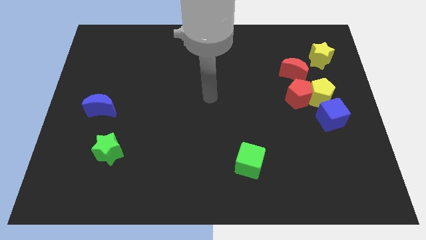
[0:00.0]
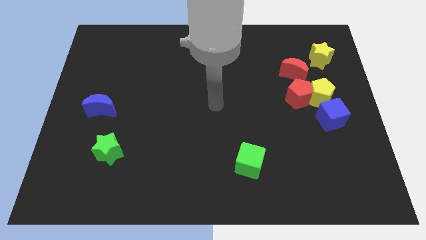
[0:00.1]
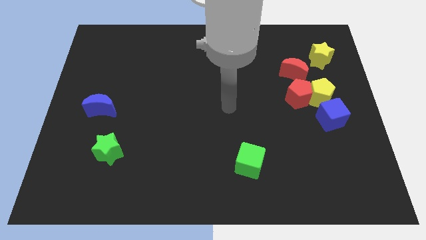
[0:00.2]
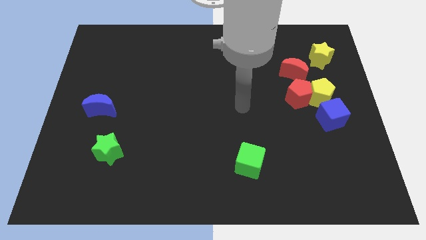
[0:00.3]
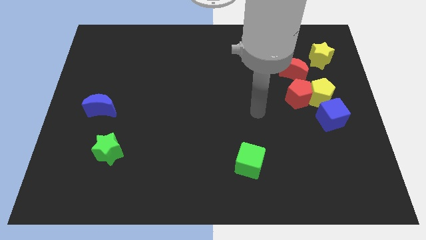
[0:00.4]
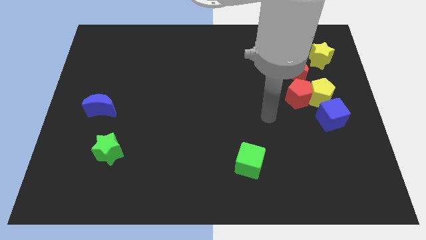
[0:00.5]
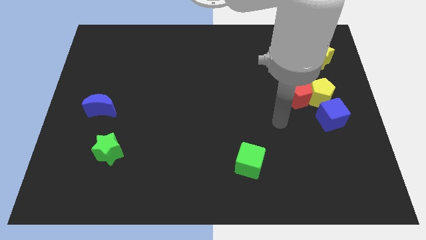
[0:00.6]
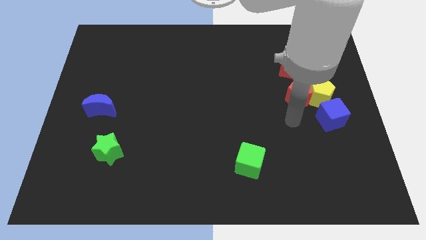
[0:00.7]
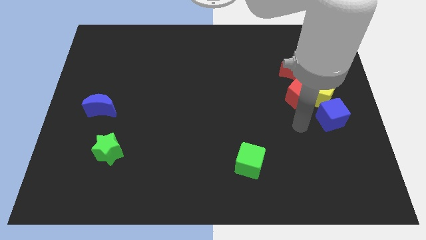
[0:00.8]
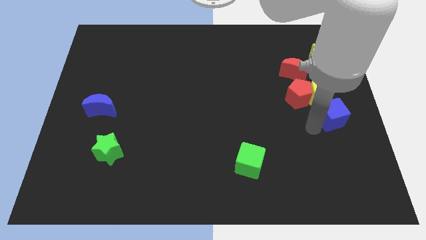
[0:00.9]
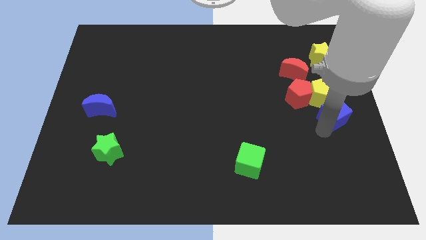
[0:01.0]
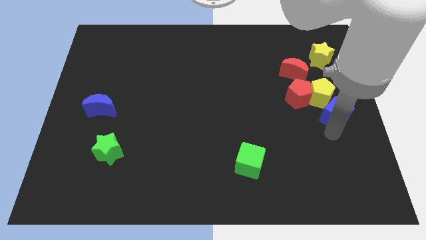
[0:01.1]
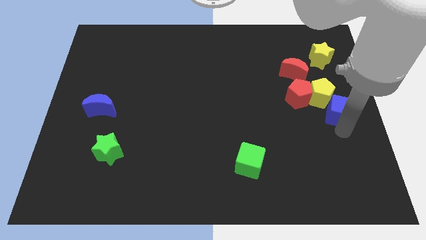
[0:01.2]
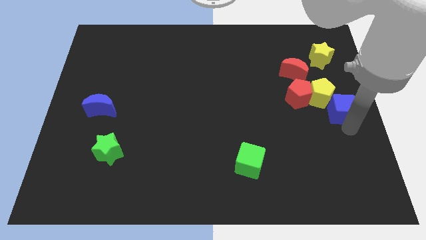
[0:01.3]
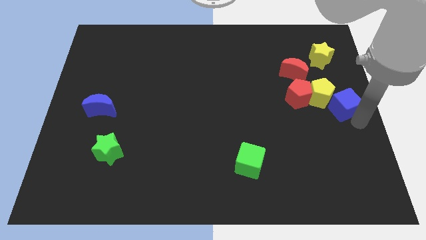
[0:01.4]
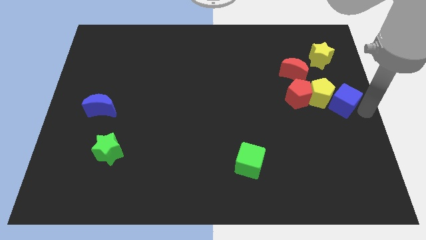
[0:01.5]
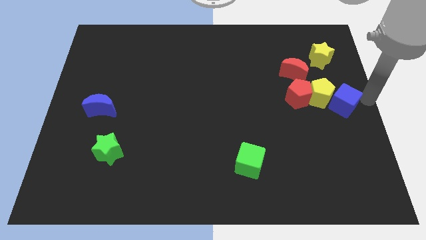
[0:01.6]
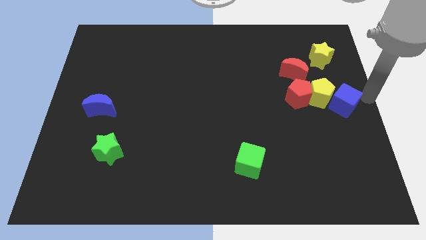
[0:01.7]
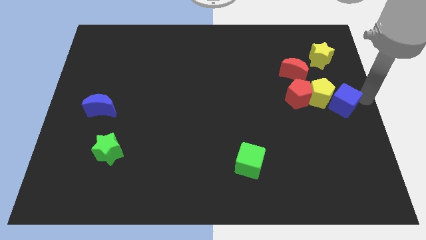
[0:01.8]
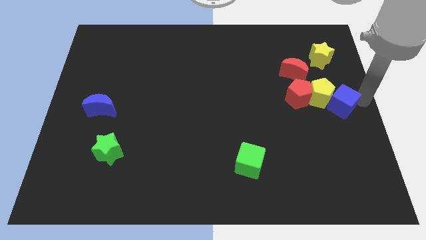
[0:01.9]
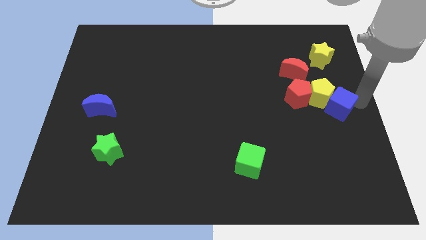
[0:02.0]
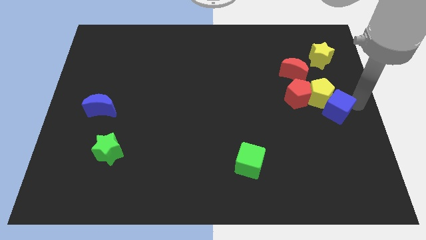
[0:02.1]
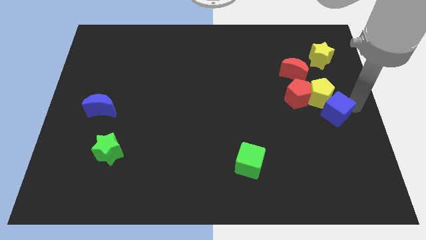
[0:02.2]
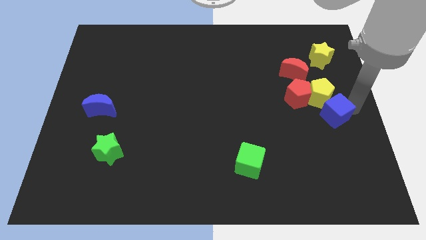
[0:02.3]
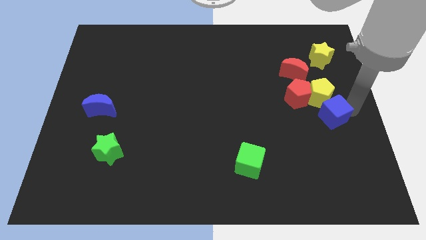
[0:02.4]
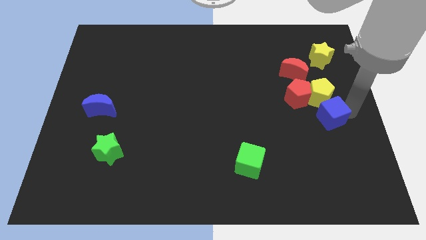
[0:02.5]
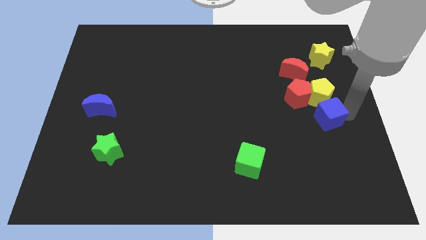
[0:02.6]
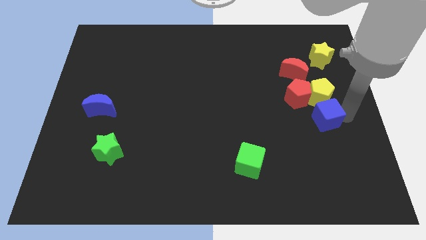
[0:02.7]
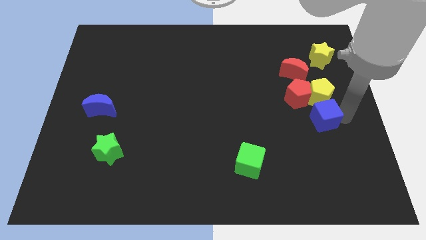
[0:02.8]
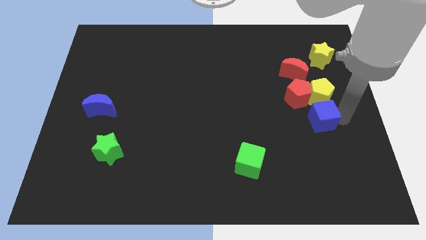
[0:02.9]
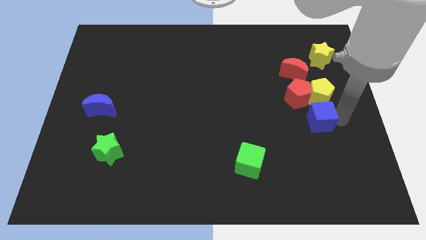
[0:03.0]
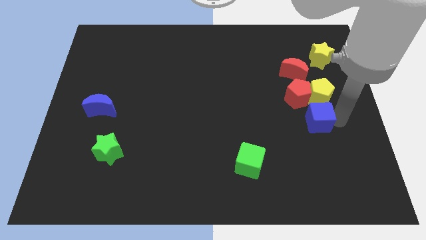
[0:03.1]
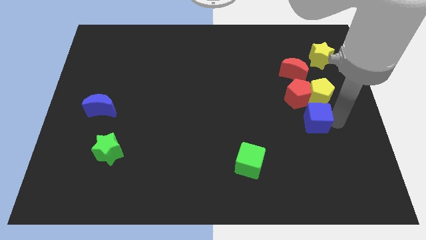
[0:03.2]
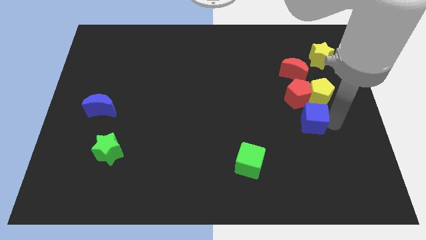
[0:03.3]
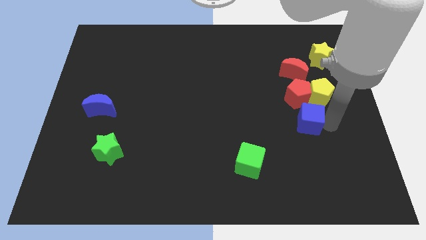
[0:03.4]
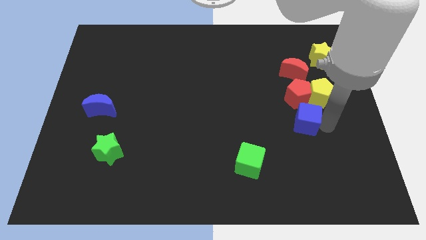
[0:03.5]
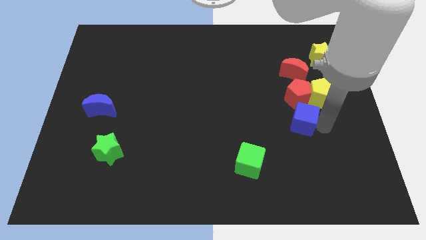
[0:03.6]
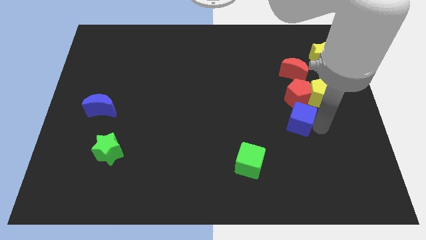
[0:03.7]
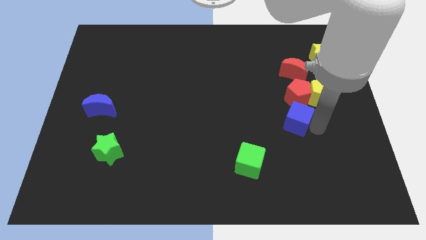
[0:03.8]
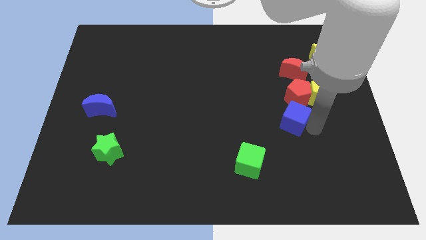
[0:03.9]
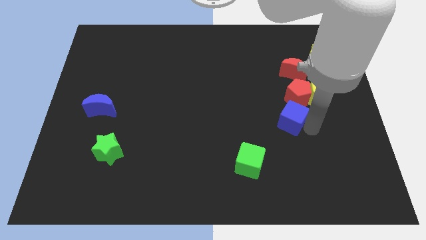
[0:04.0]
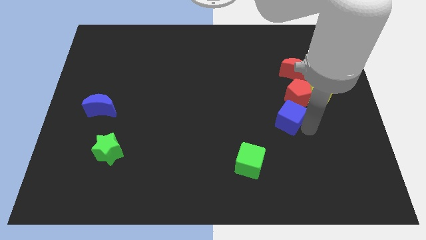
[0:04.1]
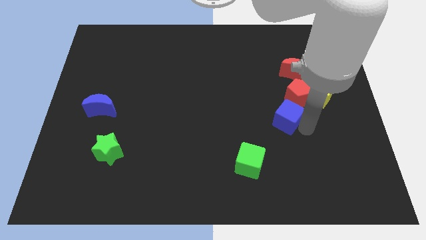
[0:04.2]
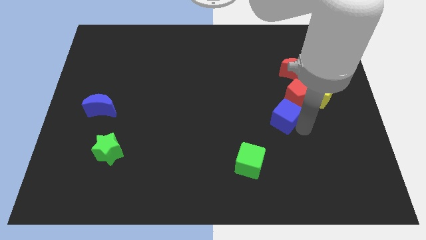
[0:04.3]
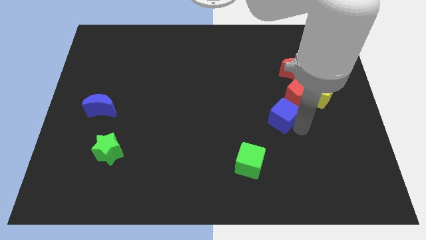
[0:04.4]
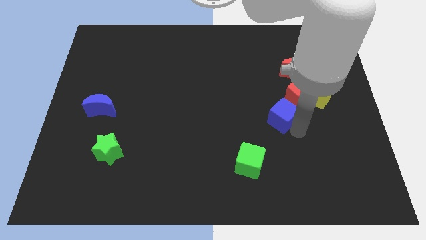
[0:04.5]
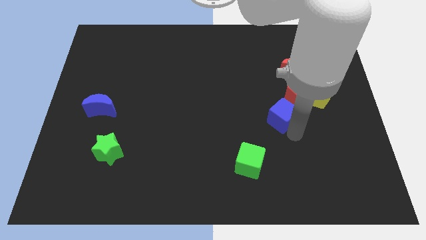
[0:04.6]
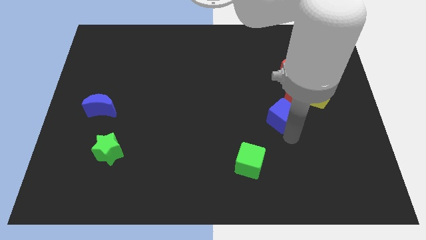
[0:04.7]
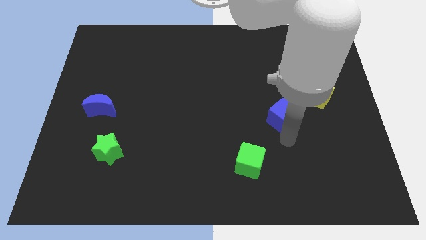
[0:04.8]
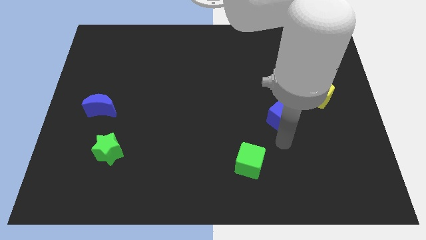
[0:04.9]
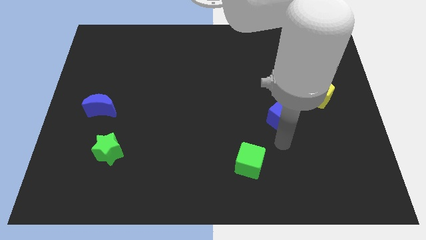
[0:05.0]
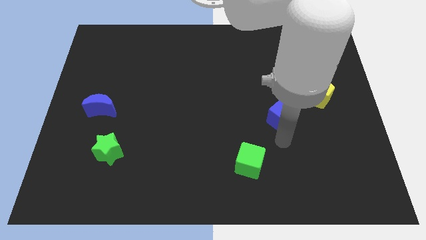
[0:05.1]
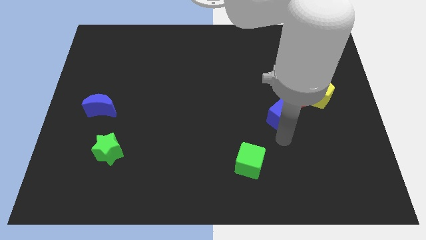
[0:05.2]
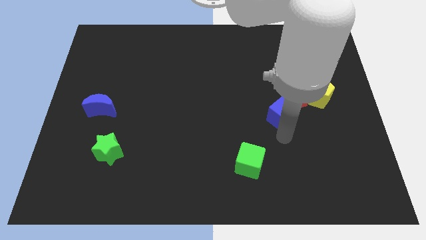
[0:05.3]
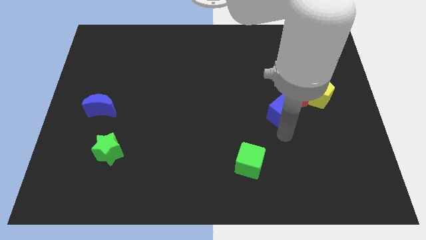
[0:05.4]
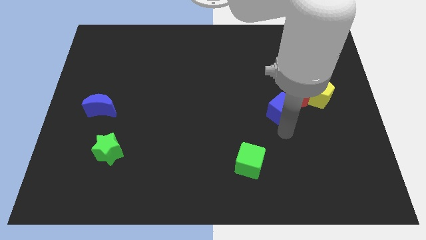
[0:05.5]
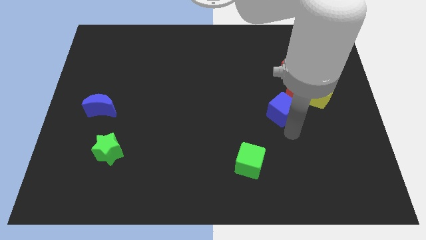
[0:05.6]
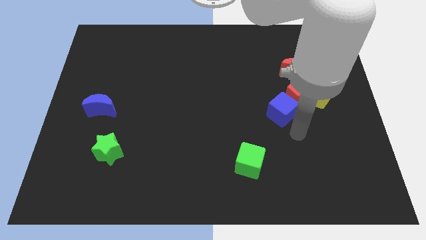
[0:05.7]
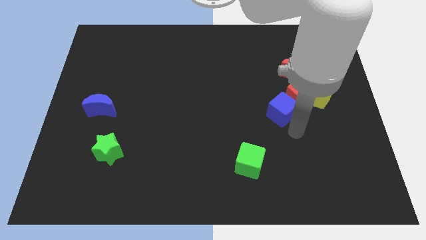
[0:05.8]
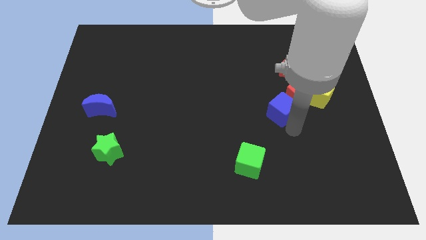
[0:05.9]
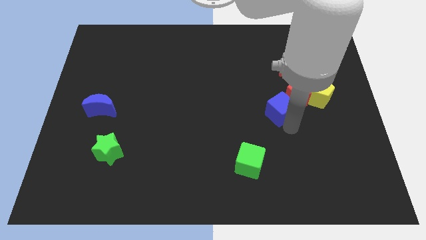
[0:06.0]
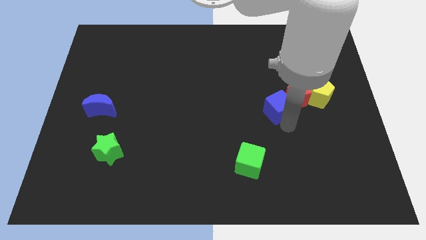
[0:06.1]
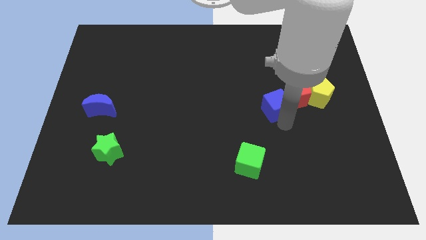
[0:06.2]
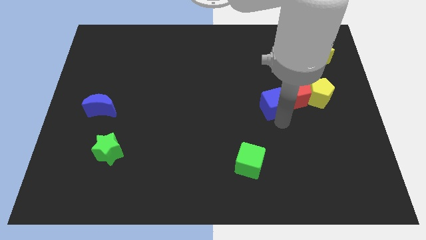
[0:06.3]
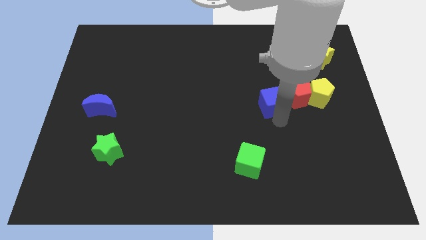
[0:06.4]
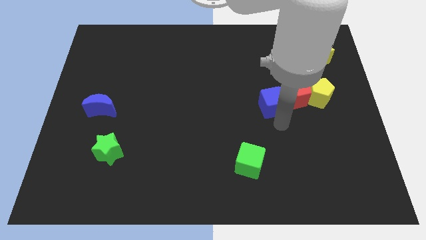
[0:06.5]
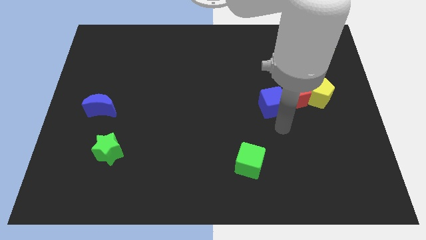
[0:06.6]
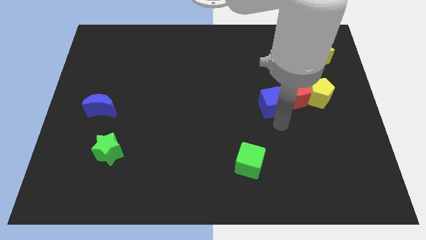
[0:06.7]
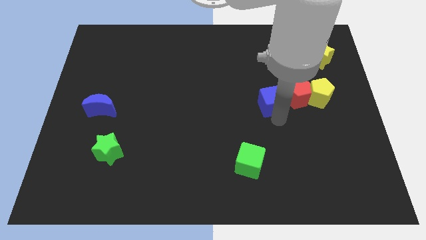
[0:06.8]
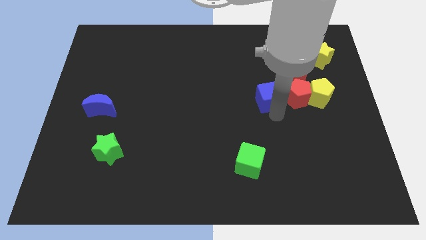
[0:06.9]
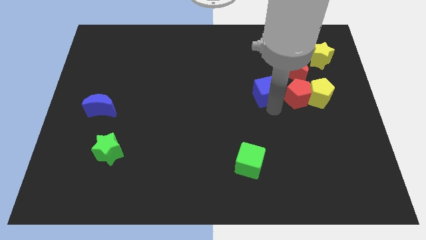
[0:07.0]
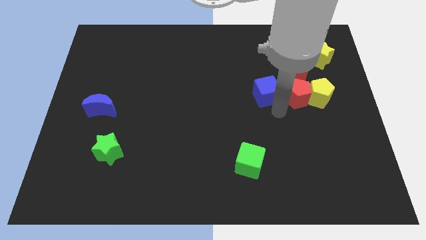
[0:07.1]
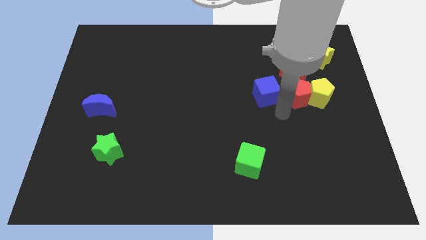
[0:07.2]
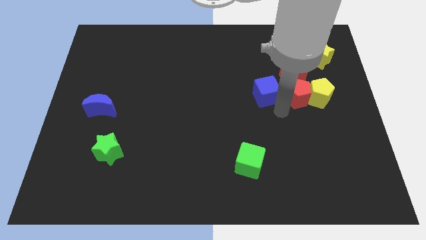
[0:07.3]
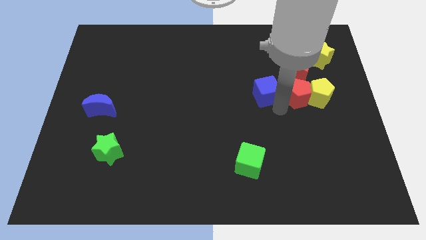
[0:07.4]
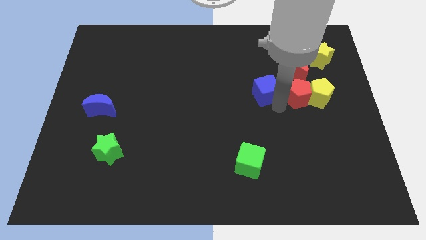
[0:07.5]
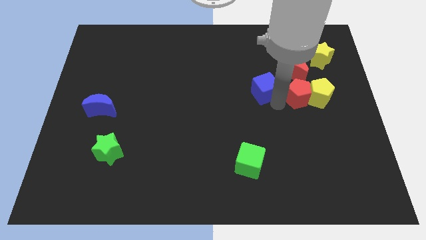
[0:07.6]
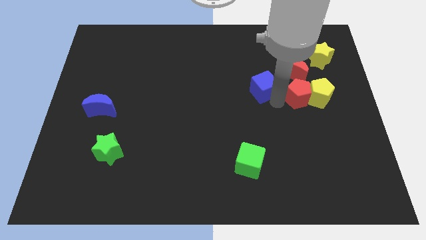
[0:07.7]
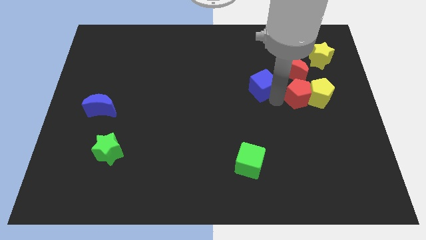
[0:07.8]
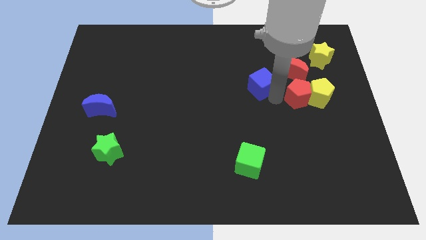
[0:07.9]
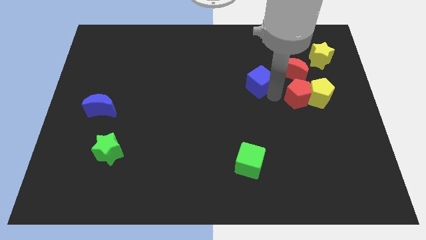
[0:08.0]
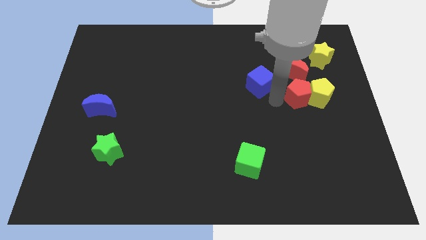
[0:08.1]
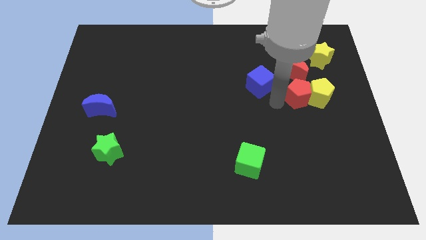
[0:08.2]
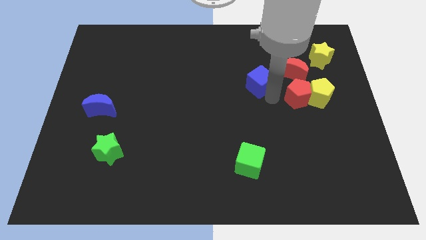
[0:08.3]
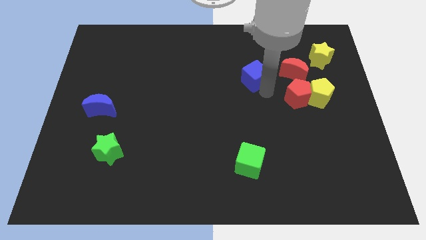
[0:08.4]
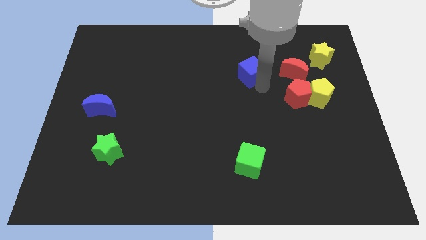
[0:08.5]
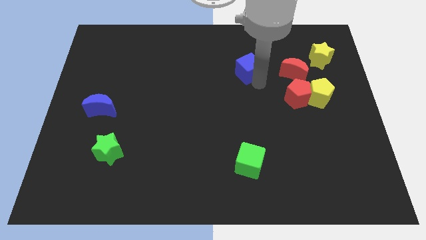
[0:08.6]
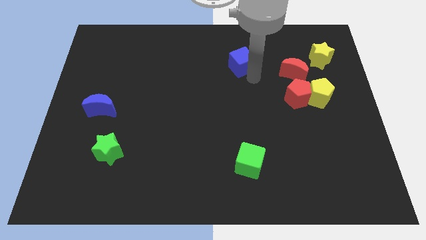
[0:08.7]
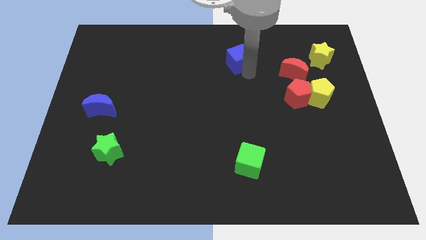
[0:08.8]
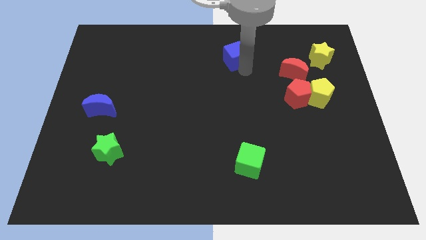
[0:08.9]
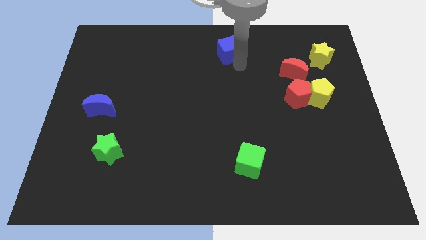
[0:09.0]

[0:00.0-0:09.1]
push the blue cube to the top side
